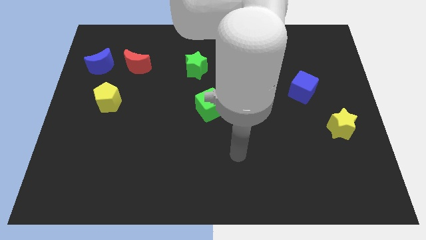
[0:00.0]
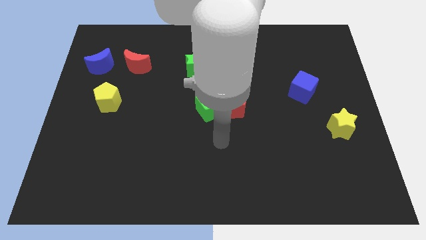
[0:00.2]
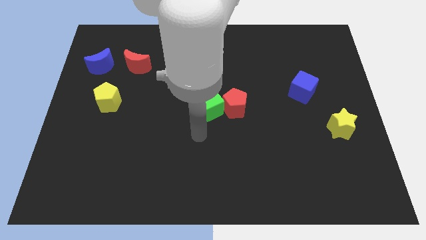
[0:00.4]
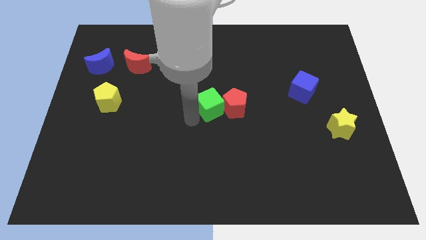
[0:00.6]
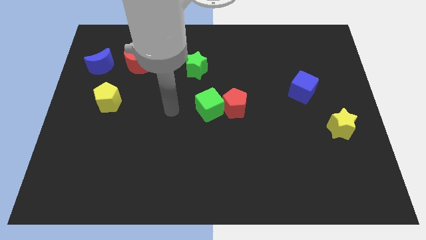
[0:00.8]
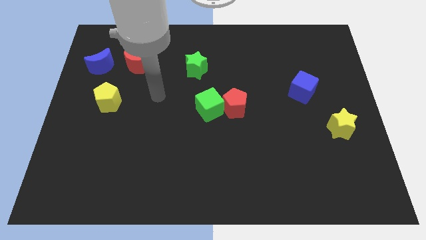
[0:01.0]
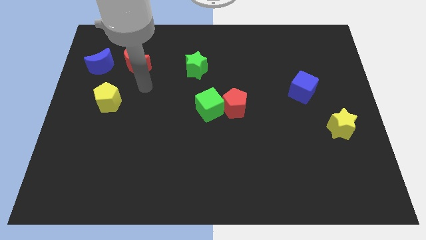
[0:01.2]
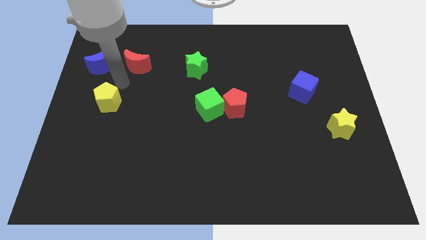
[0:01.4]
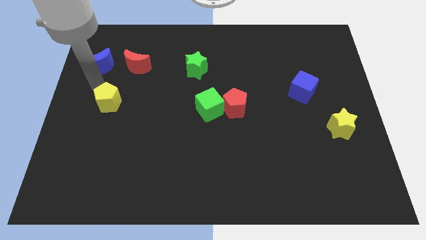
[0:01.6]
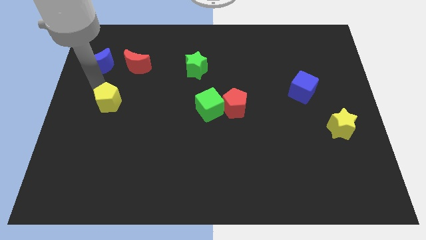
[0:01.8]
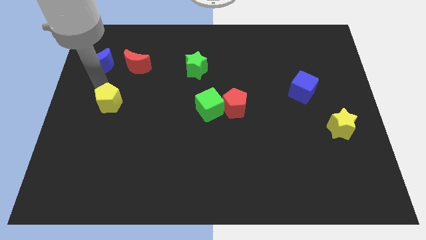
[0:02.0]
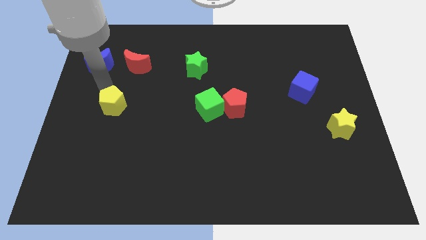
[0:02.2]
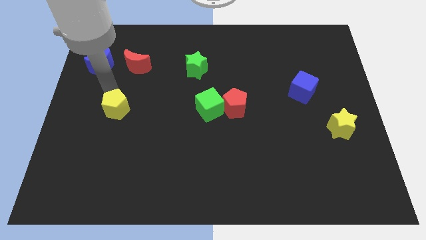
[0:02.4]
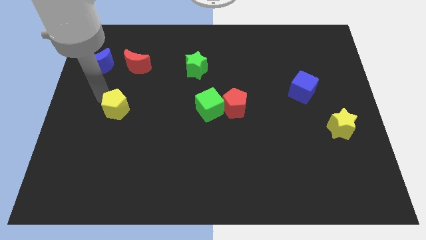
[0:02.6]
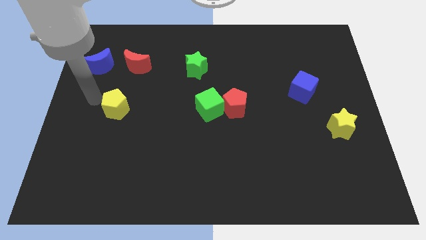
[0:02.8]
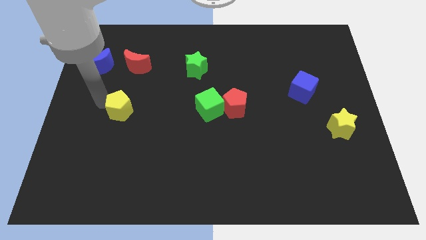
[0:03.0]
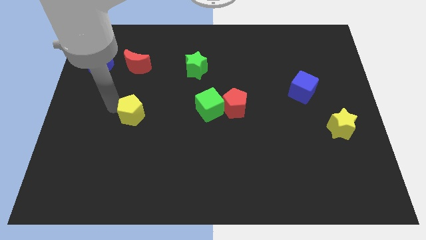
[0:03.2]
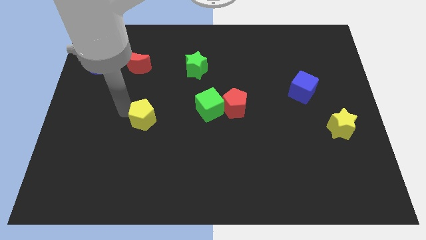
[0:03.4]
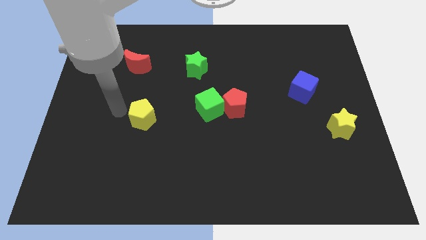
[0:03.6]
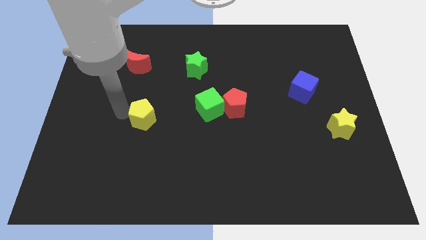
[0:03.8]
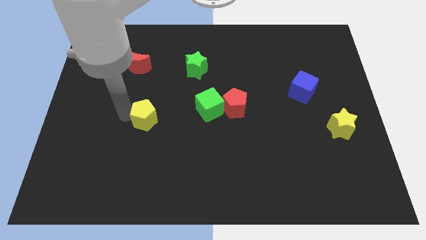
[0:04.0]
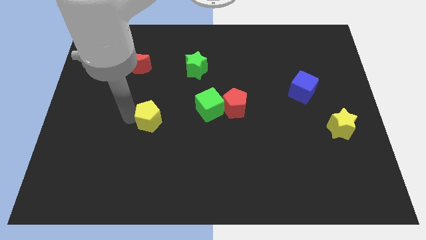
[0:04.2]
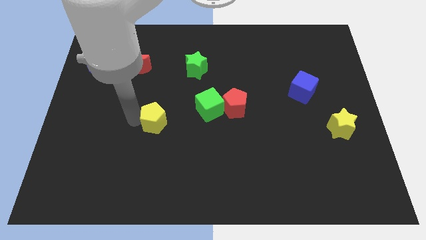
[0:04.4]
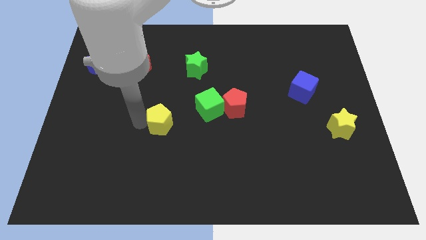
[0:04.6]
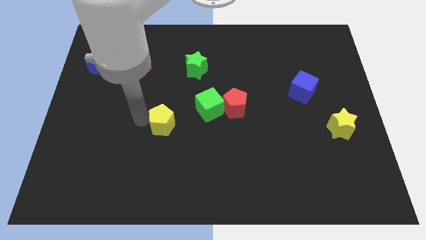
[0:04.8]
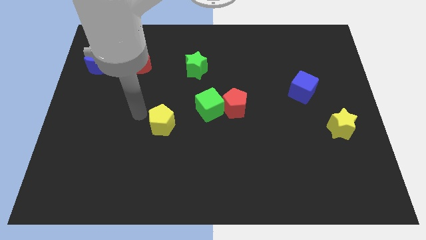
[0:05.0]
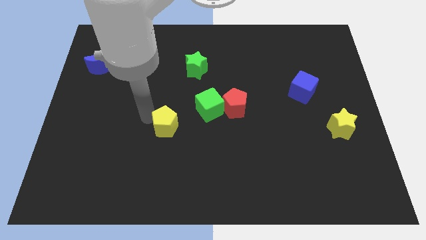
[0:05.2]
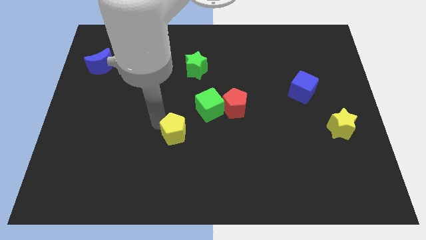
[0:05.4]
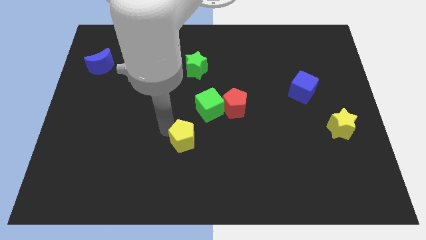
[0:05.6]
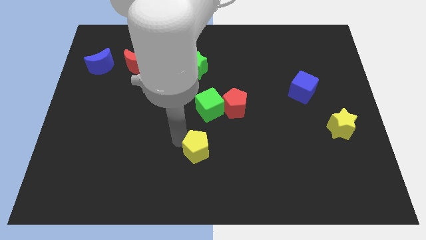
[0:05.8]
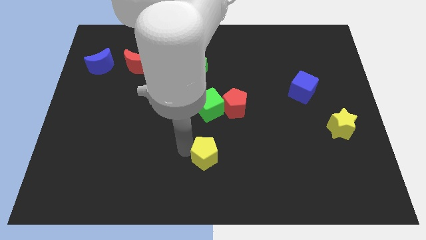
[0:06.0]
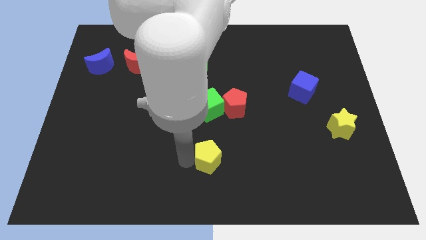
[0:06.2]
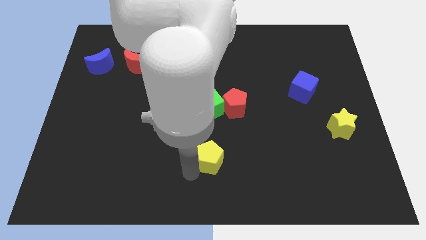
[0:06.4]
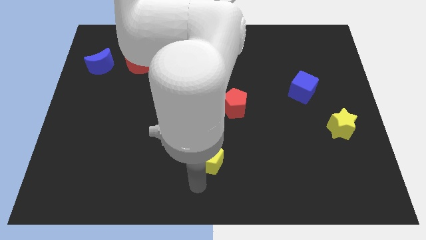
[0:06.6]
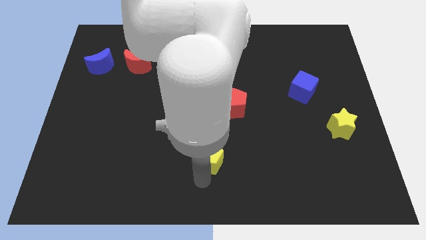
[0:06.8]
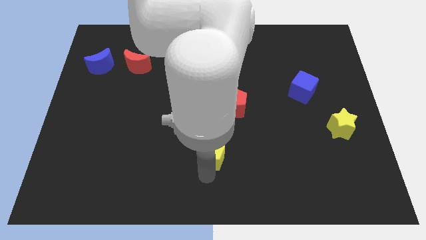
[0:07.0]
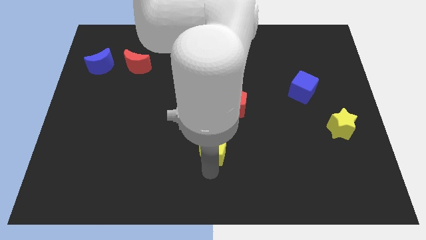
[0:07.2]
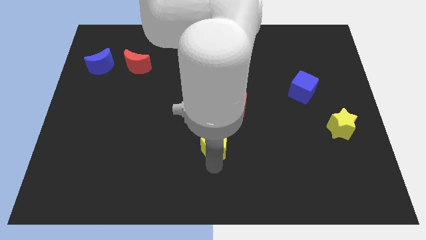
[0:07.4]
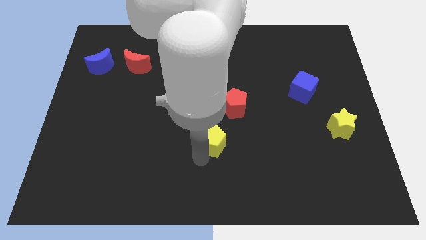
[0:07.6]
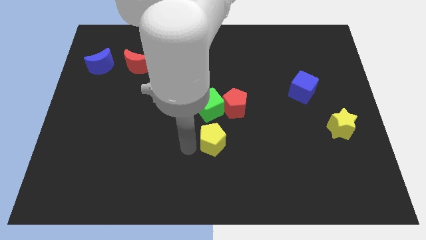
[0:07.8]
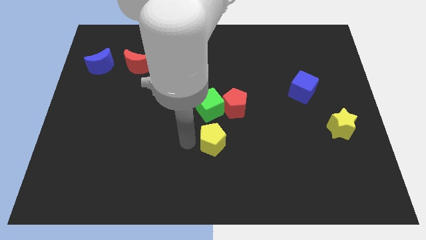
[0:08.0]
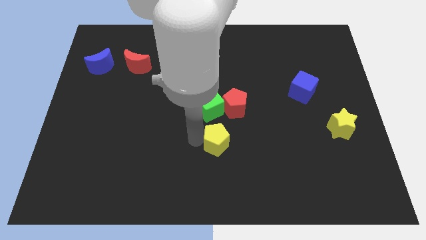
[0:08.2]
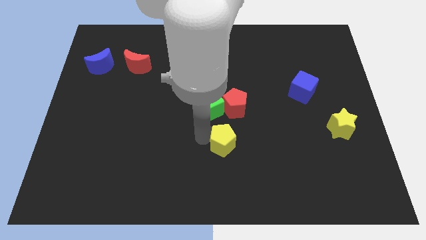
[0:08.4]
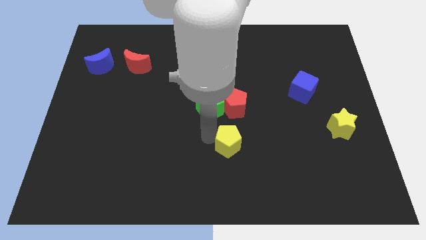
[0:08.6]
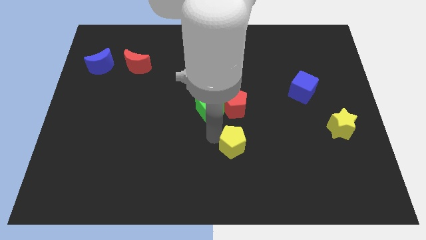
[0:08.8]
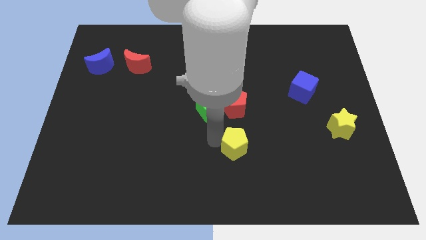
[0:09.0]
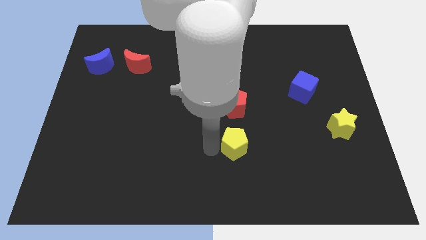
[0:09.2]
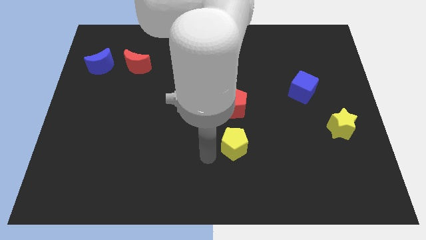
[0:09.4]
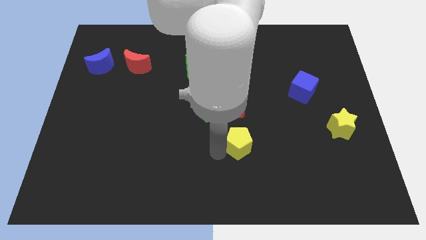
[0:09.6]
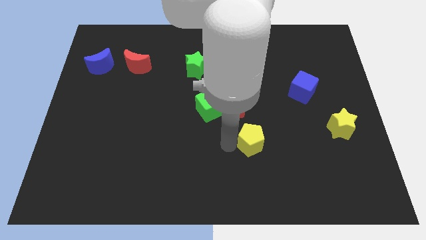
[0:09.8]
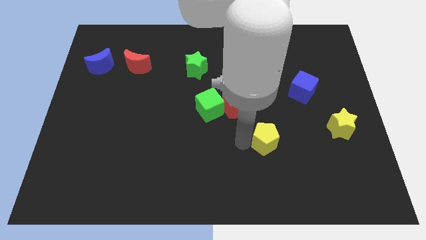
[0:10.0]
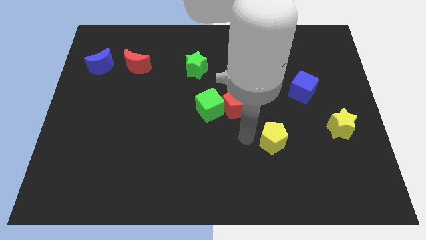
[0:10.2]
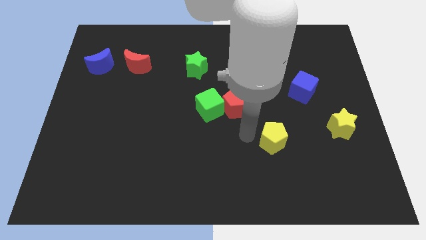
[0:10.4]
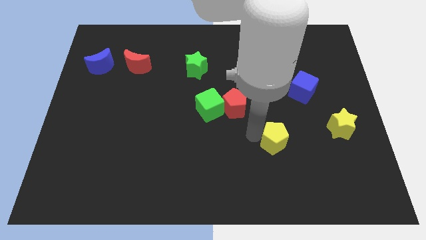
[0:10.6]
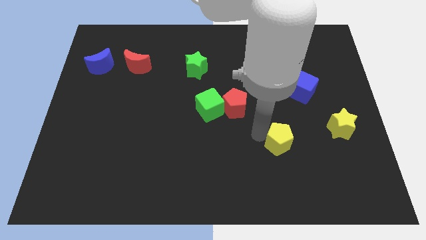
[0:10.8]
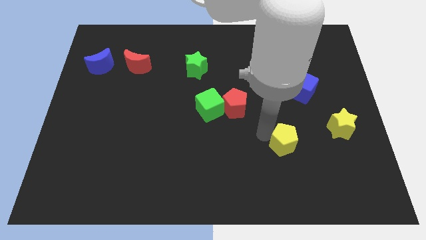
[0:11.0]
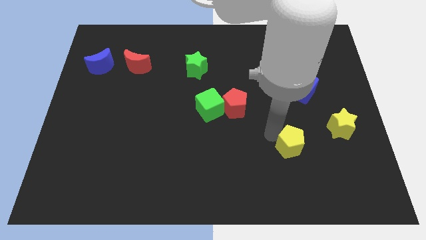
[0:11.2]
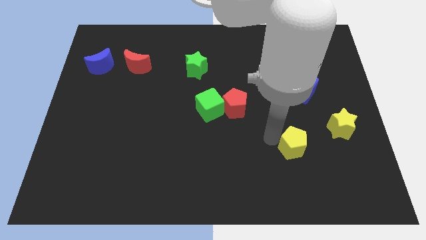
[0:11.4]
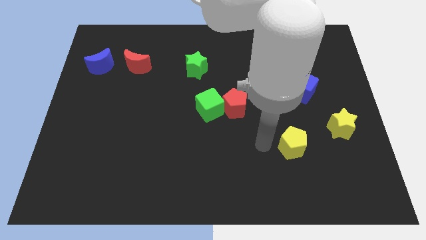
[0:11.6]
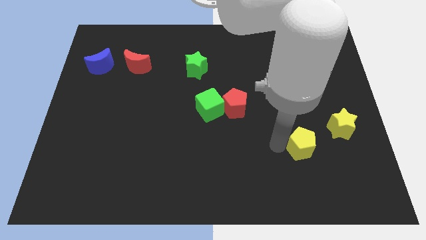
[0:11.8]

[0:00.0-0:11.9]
move the yellow pentagon to the bottom left of the yellow star

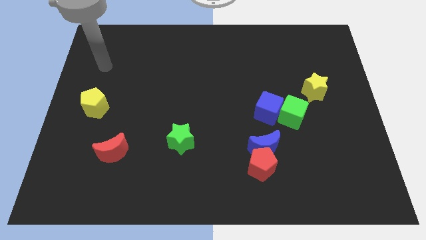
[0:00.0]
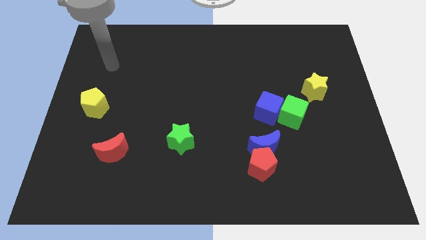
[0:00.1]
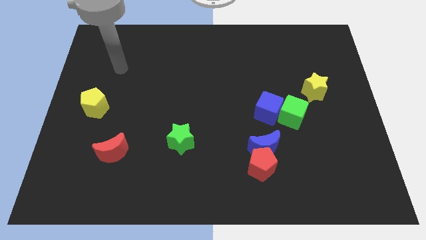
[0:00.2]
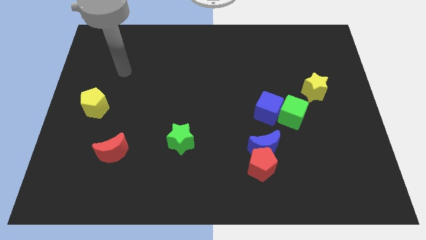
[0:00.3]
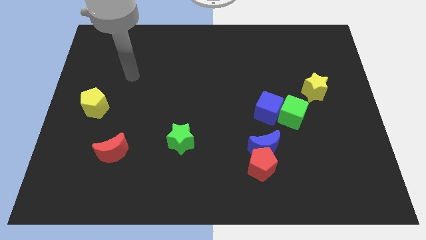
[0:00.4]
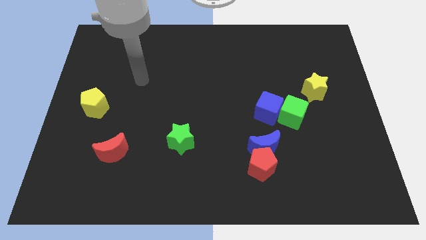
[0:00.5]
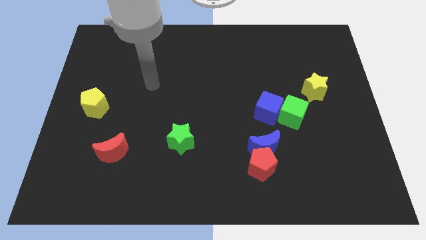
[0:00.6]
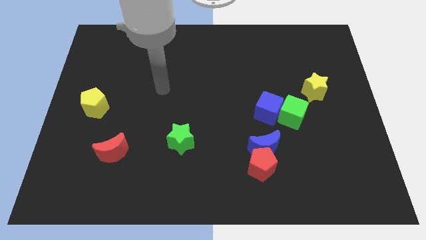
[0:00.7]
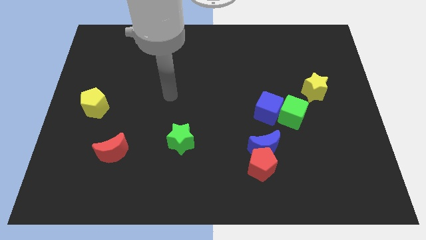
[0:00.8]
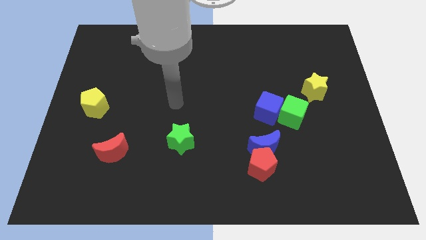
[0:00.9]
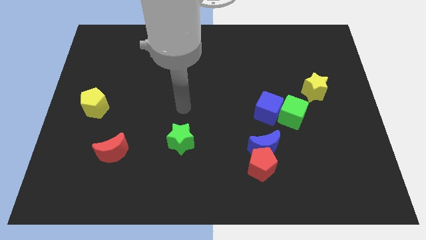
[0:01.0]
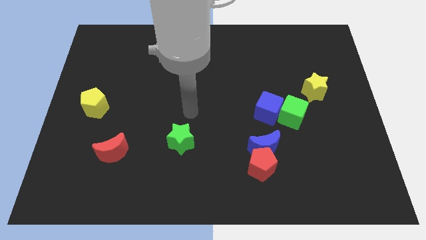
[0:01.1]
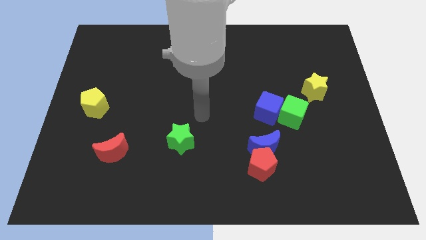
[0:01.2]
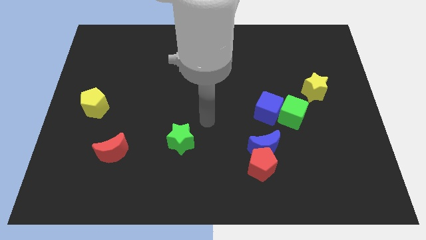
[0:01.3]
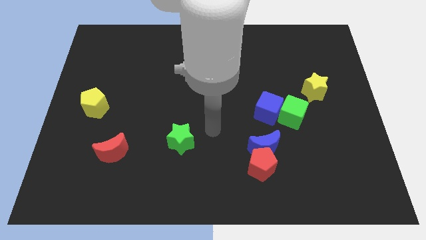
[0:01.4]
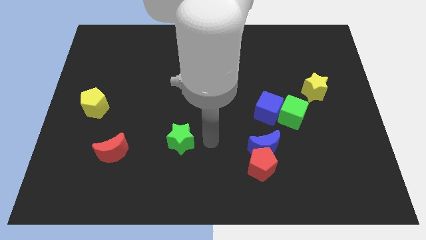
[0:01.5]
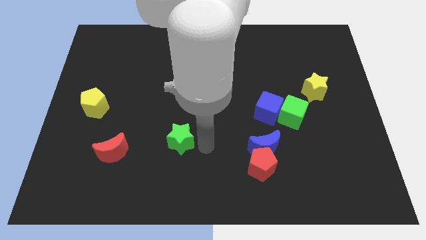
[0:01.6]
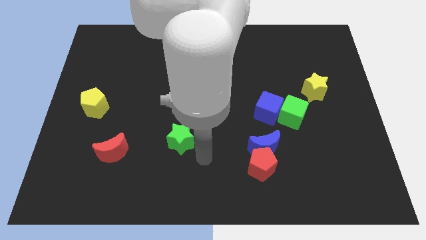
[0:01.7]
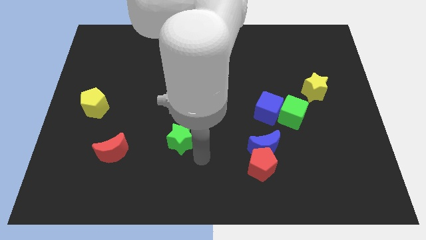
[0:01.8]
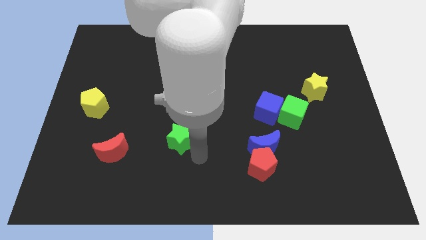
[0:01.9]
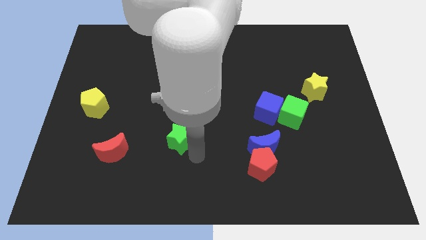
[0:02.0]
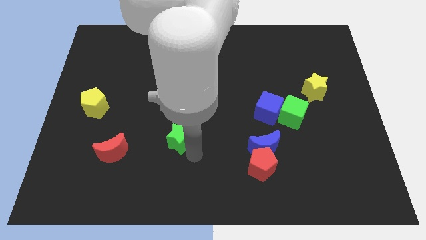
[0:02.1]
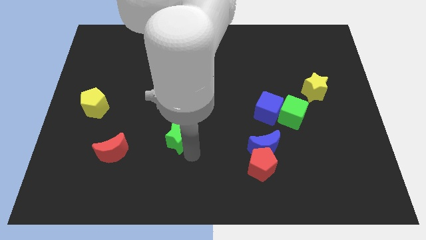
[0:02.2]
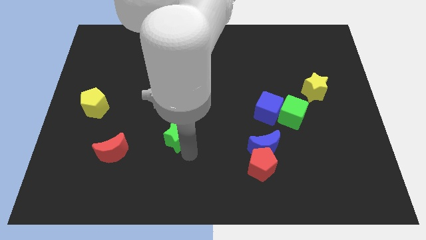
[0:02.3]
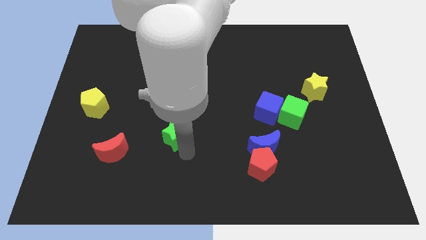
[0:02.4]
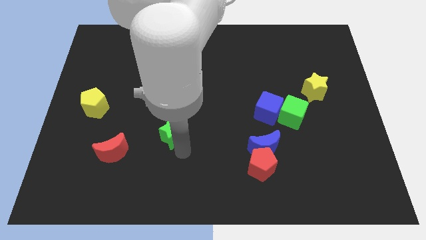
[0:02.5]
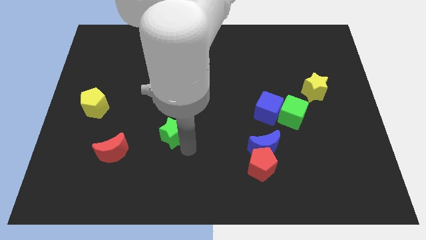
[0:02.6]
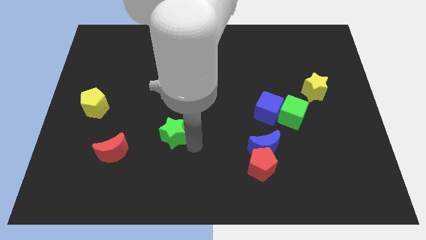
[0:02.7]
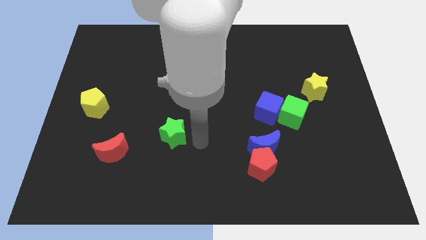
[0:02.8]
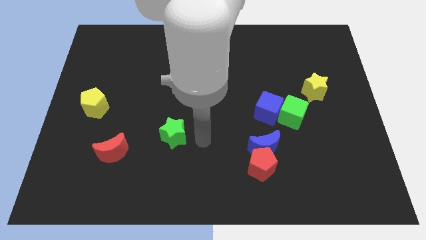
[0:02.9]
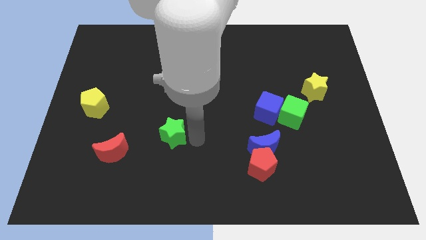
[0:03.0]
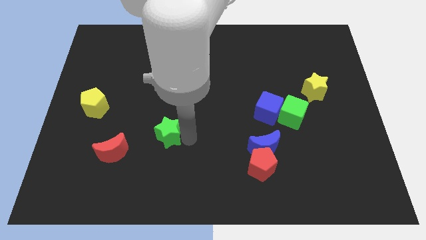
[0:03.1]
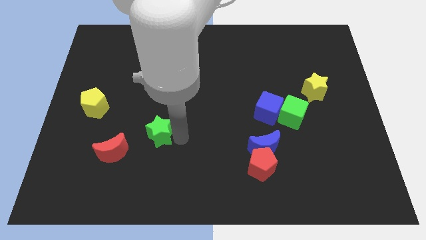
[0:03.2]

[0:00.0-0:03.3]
put the green star to the top right of the red moon
